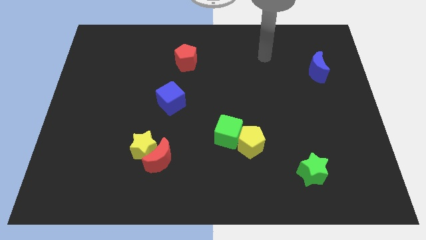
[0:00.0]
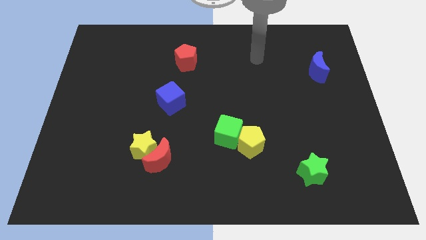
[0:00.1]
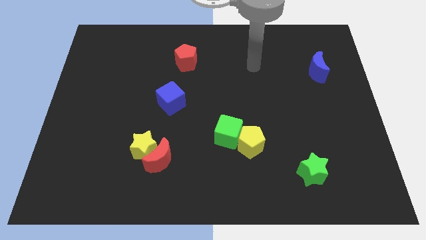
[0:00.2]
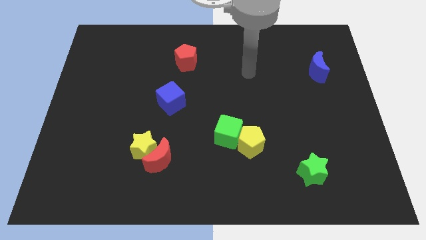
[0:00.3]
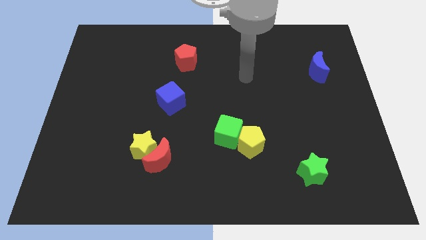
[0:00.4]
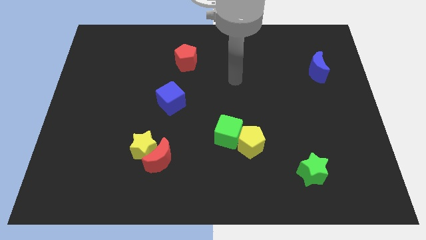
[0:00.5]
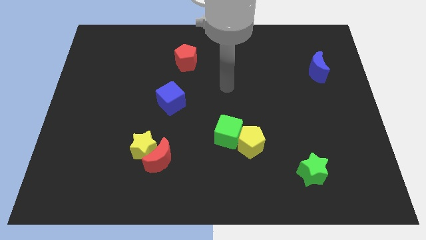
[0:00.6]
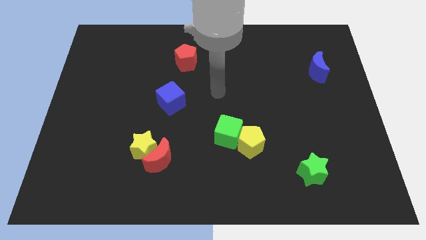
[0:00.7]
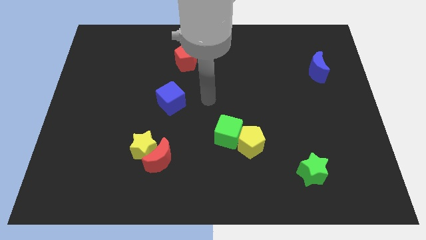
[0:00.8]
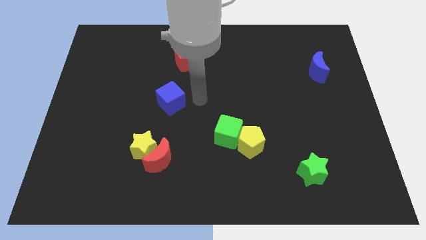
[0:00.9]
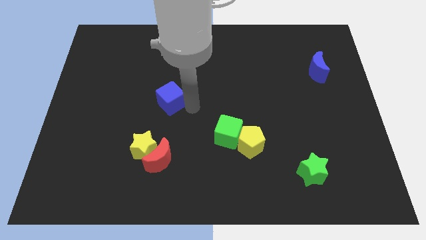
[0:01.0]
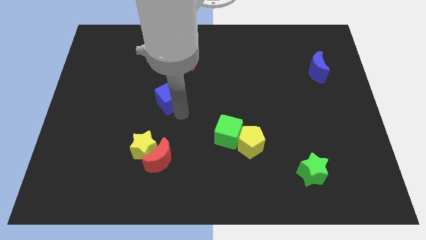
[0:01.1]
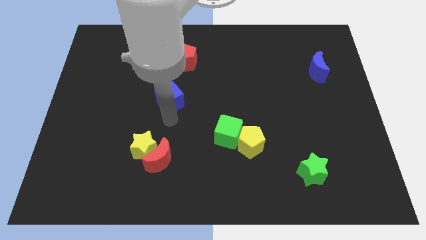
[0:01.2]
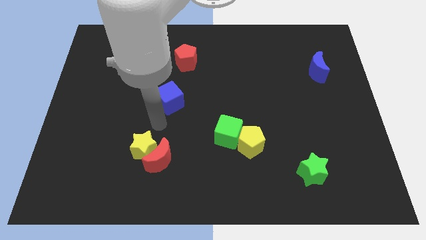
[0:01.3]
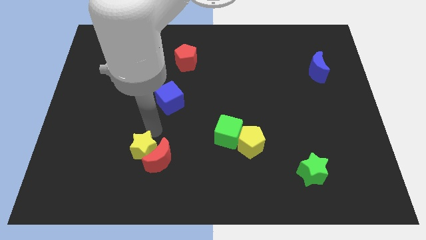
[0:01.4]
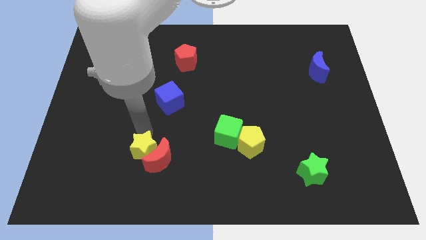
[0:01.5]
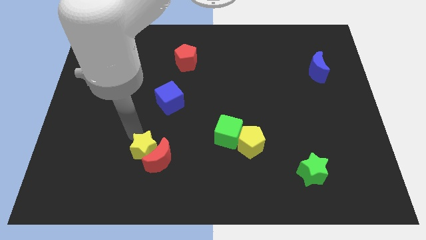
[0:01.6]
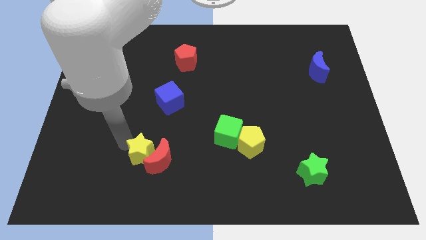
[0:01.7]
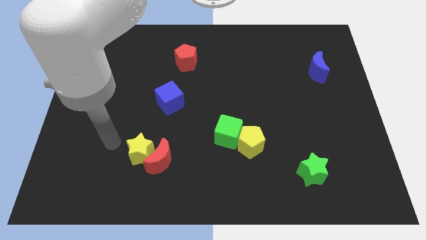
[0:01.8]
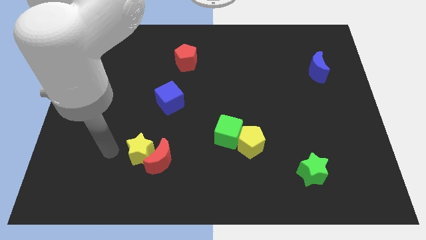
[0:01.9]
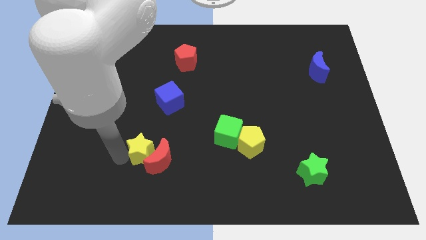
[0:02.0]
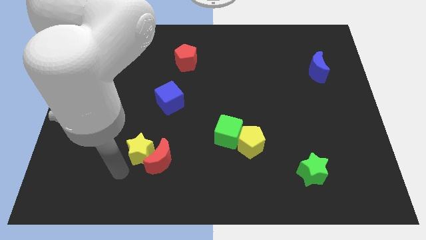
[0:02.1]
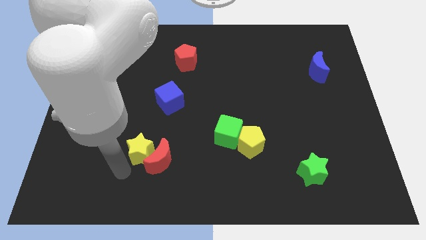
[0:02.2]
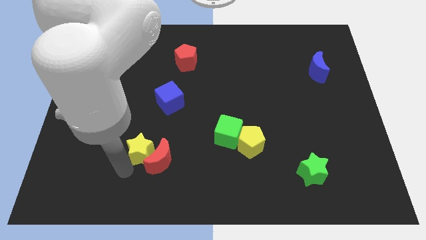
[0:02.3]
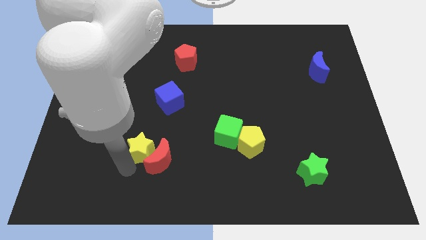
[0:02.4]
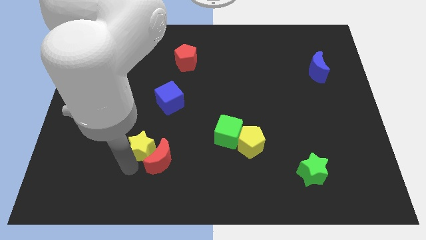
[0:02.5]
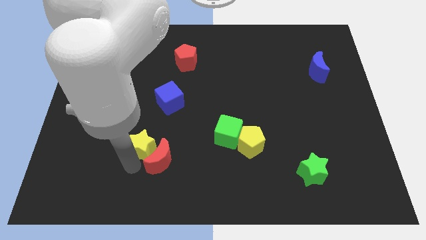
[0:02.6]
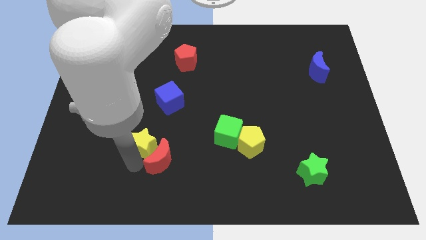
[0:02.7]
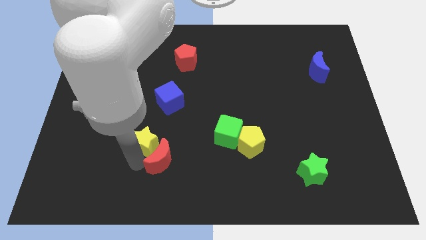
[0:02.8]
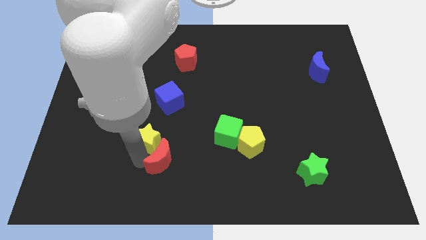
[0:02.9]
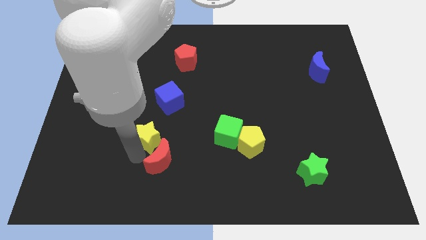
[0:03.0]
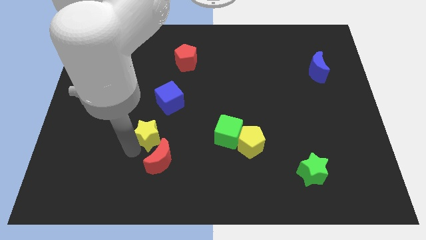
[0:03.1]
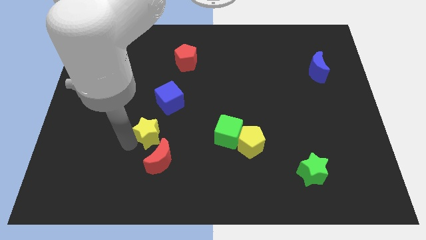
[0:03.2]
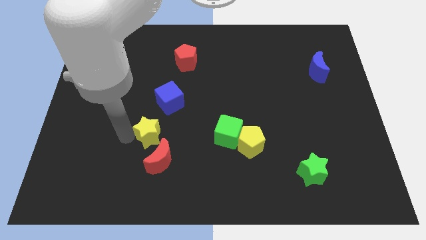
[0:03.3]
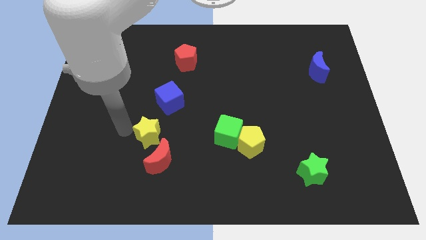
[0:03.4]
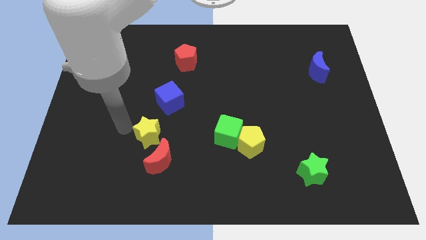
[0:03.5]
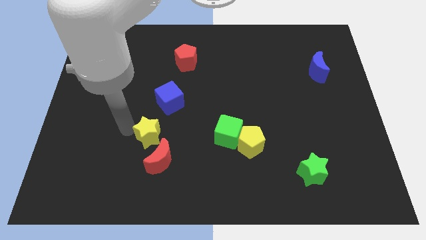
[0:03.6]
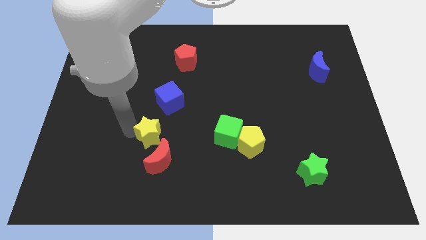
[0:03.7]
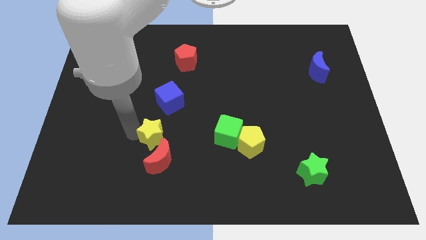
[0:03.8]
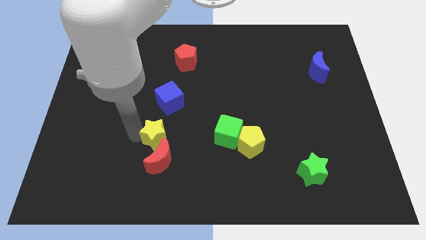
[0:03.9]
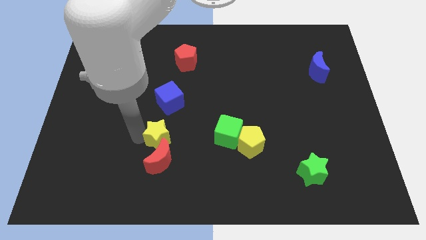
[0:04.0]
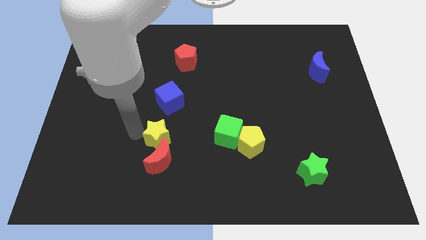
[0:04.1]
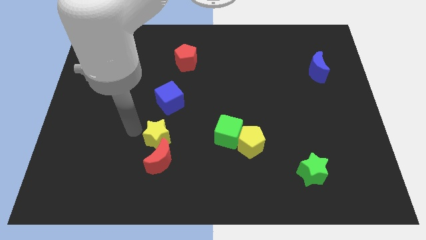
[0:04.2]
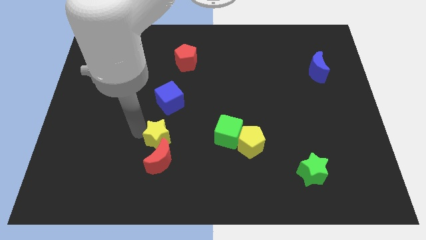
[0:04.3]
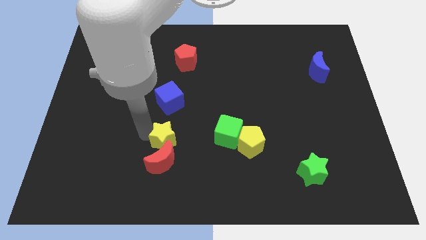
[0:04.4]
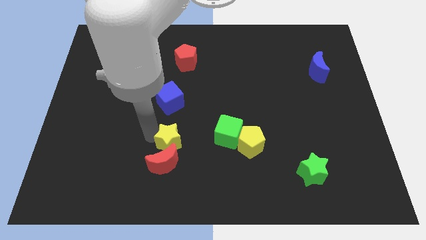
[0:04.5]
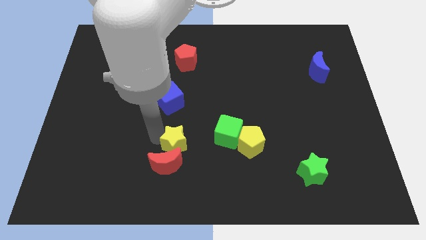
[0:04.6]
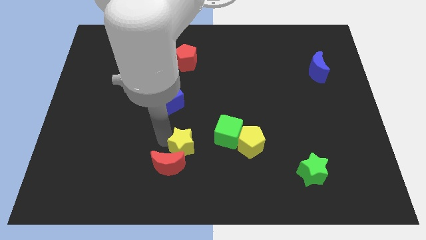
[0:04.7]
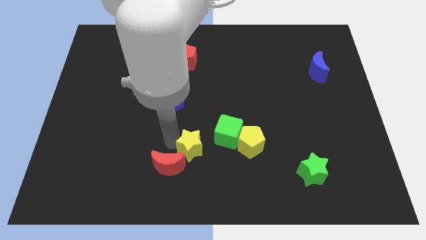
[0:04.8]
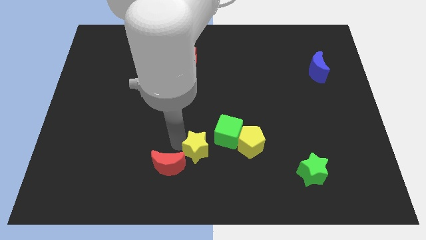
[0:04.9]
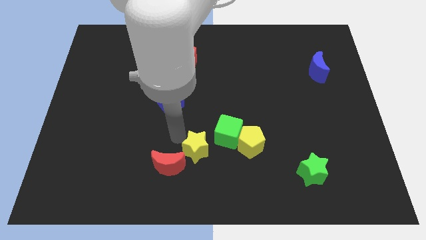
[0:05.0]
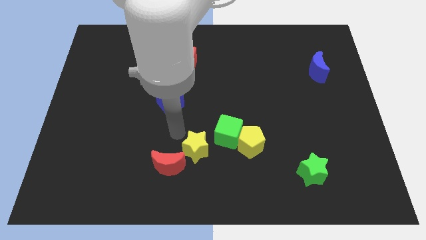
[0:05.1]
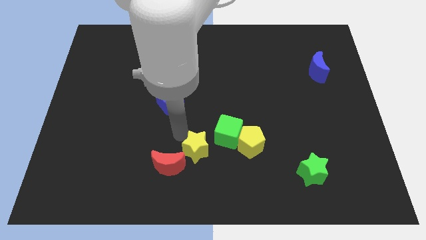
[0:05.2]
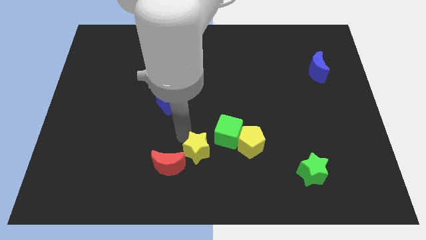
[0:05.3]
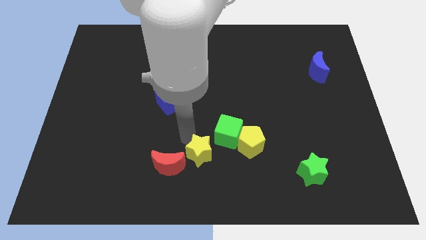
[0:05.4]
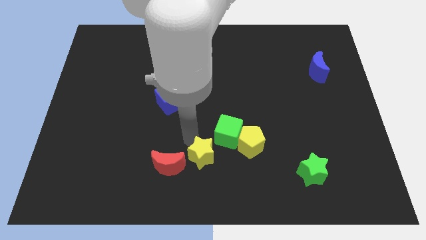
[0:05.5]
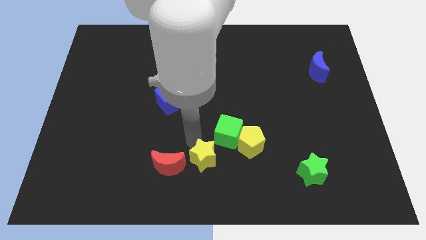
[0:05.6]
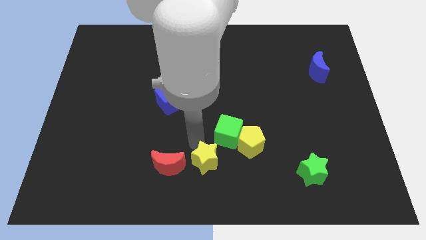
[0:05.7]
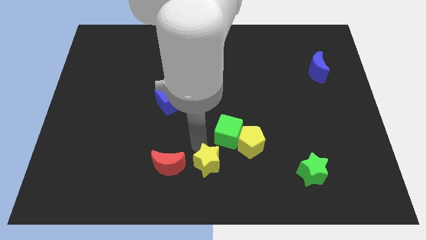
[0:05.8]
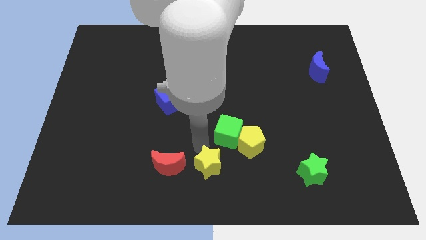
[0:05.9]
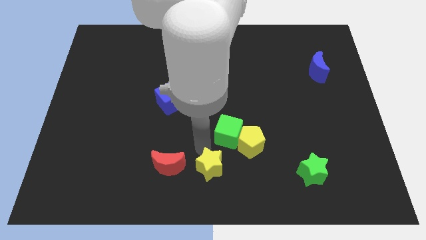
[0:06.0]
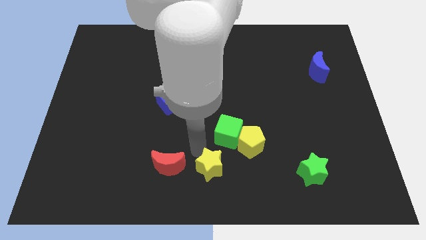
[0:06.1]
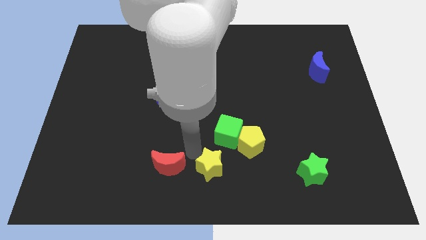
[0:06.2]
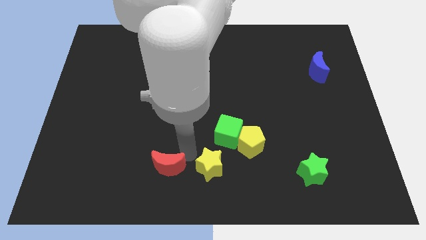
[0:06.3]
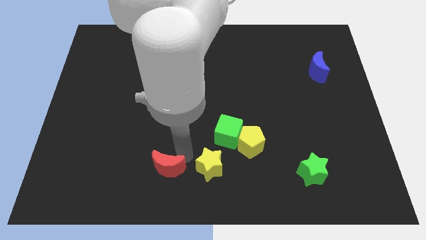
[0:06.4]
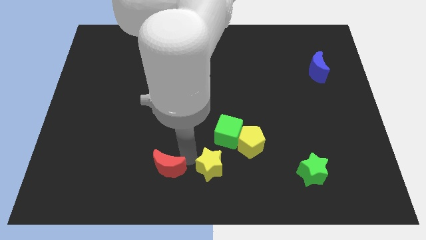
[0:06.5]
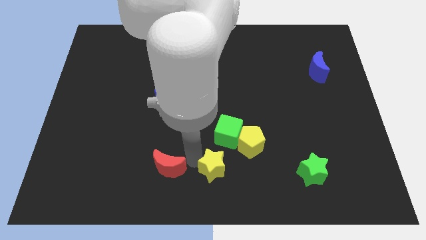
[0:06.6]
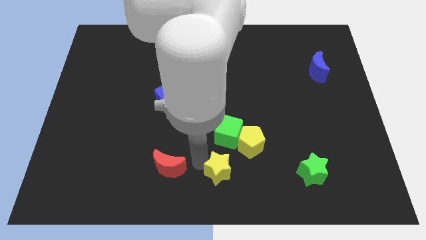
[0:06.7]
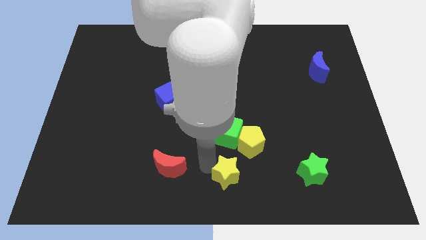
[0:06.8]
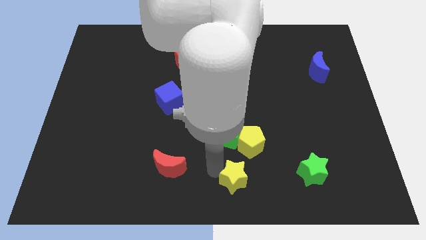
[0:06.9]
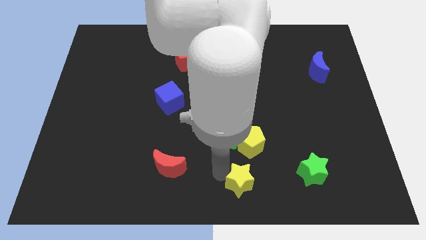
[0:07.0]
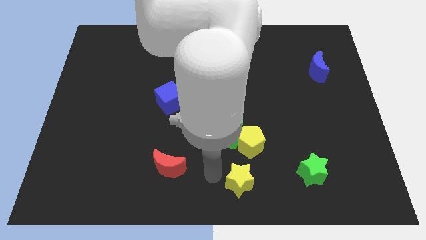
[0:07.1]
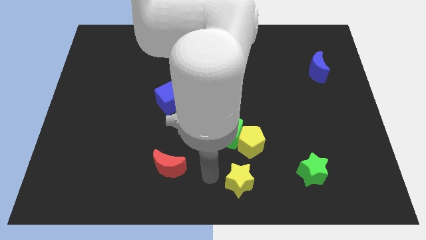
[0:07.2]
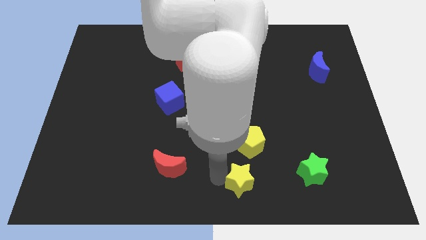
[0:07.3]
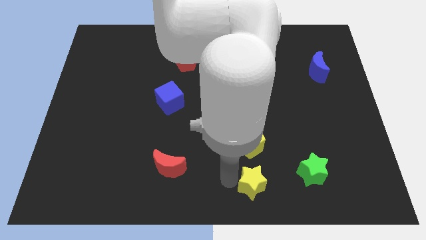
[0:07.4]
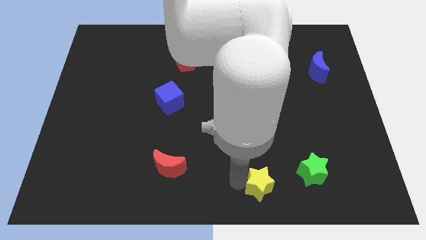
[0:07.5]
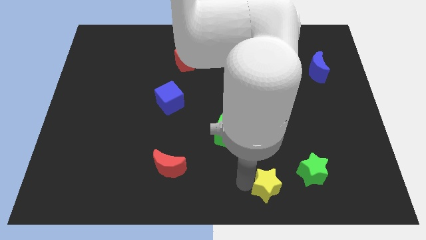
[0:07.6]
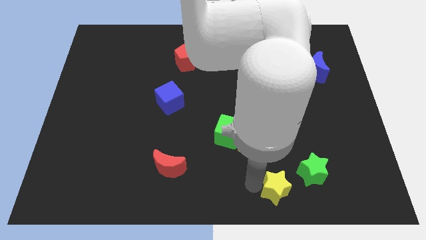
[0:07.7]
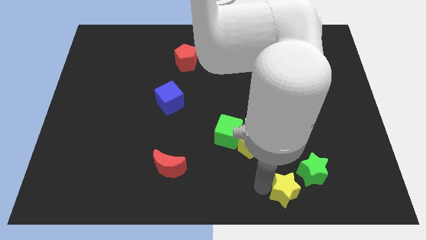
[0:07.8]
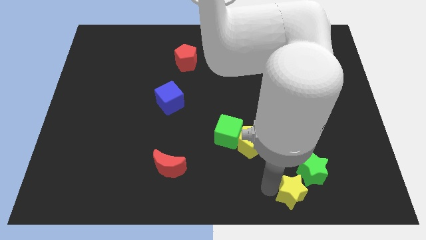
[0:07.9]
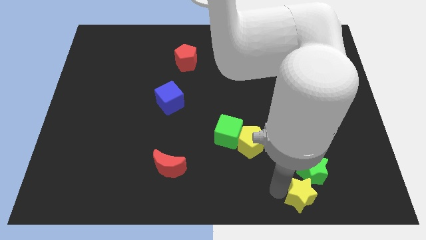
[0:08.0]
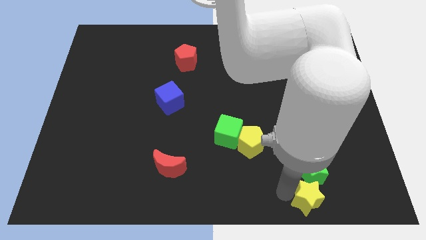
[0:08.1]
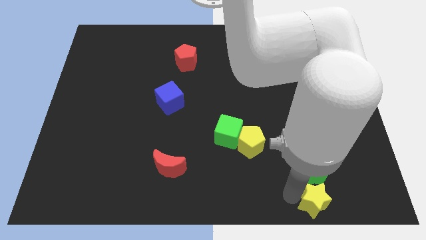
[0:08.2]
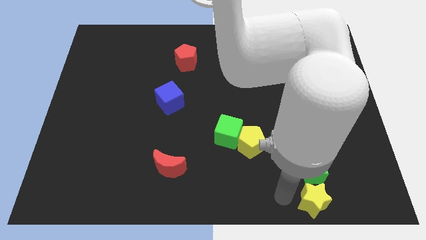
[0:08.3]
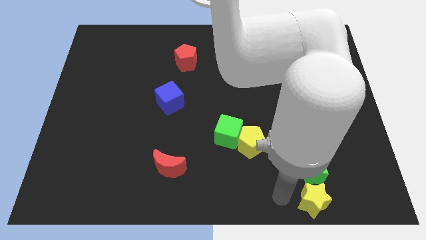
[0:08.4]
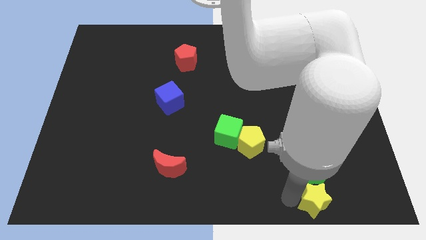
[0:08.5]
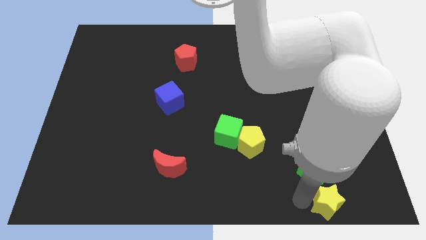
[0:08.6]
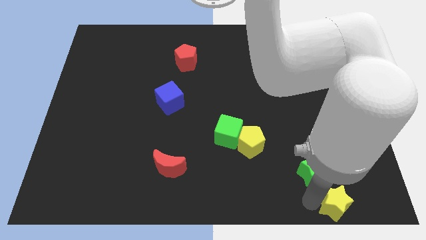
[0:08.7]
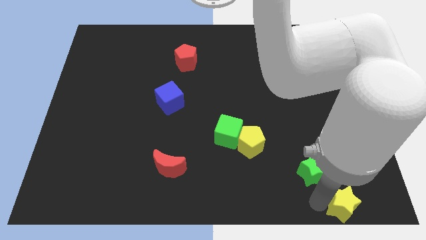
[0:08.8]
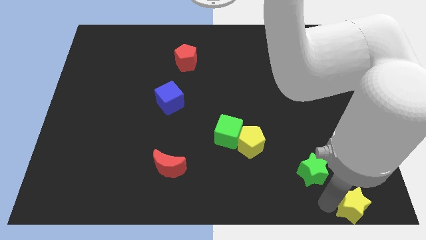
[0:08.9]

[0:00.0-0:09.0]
push the yellow star to the bottom right
